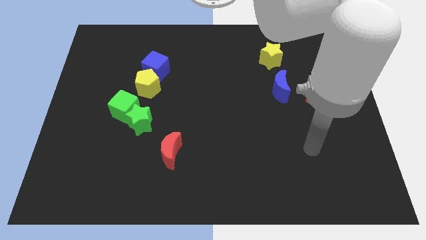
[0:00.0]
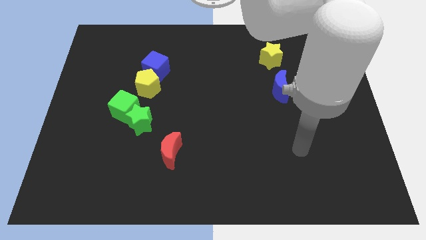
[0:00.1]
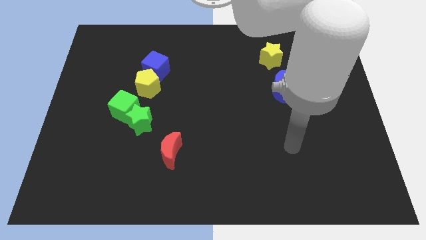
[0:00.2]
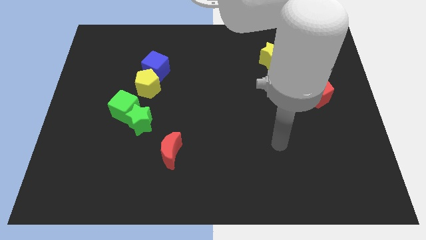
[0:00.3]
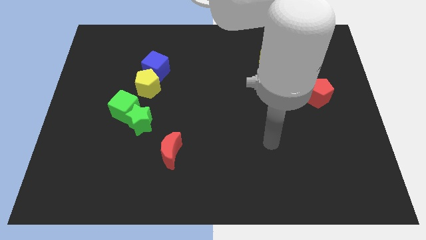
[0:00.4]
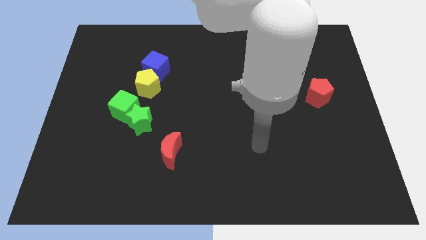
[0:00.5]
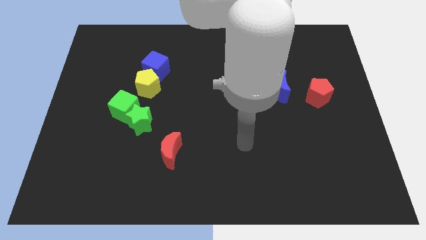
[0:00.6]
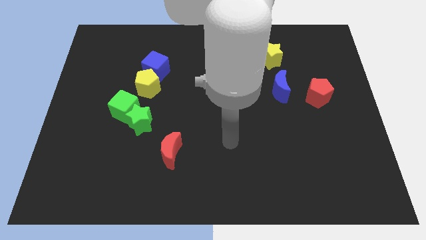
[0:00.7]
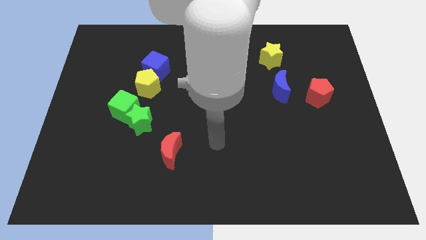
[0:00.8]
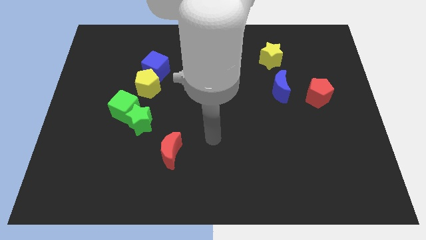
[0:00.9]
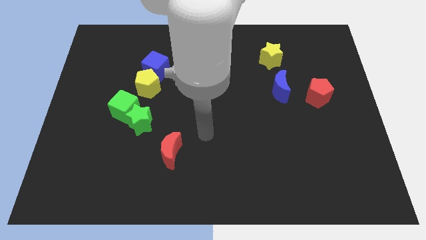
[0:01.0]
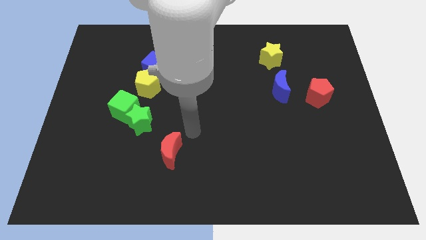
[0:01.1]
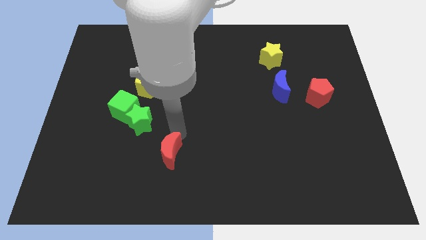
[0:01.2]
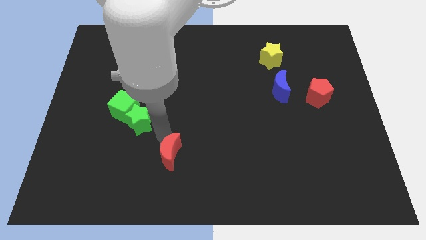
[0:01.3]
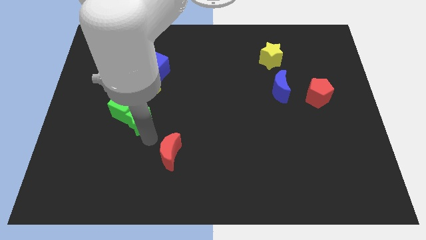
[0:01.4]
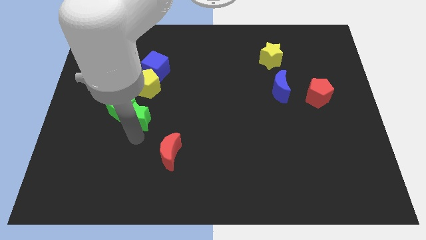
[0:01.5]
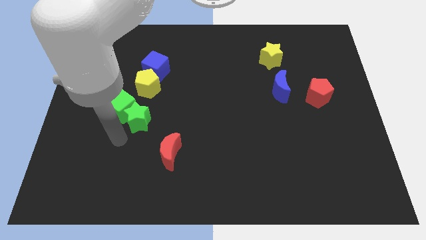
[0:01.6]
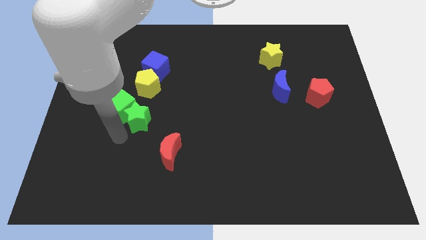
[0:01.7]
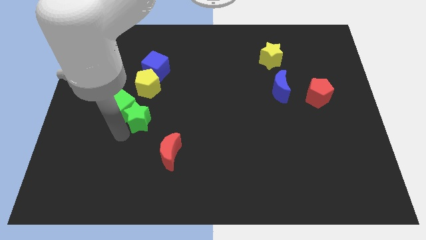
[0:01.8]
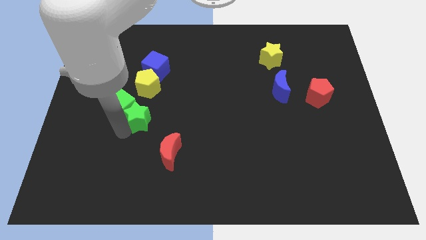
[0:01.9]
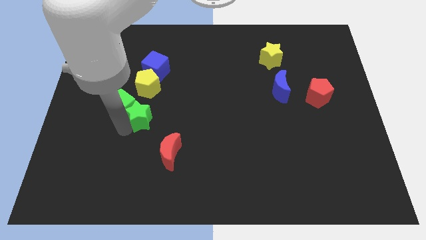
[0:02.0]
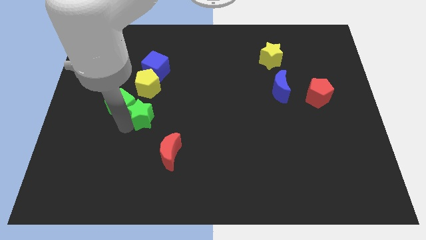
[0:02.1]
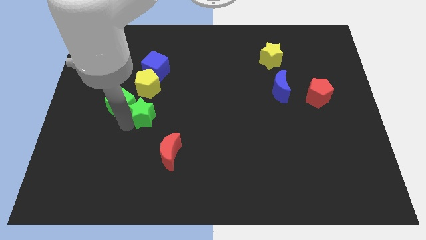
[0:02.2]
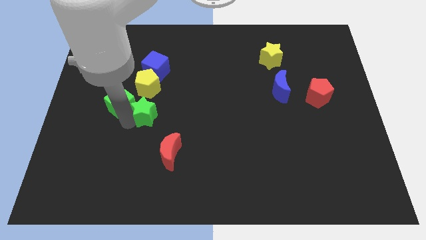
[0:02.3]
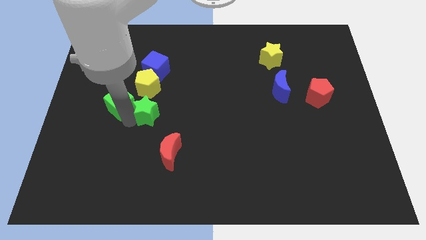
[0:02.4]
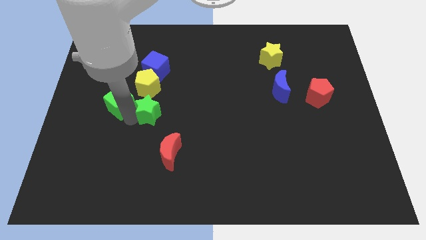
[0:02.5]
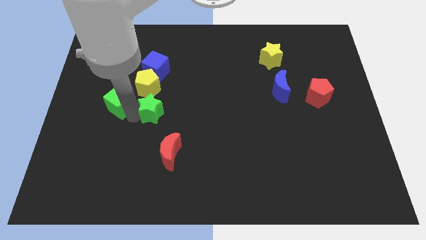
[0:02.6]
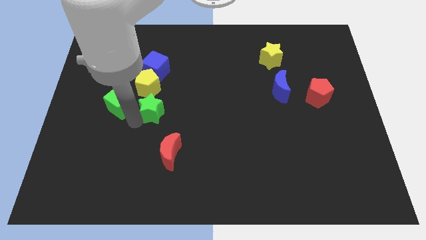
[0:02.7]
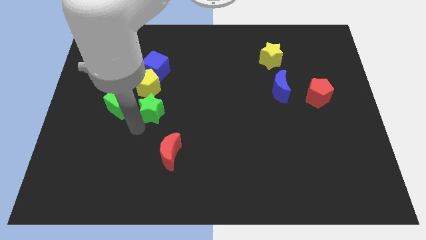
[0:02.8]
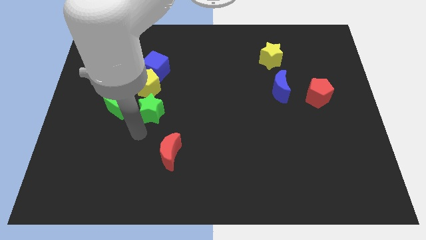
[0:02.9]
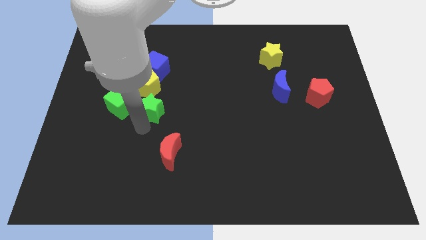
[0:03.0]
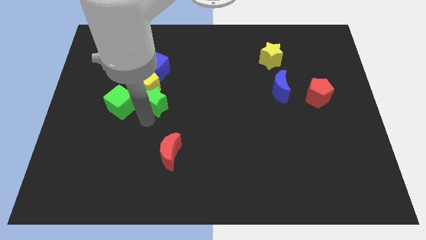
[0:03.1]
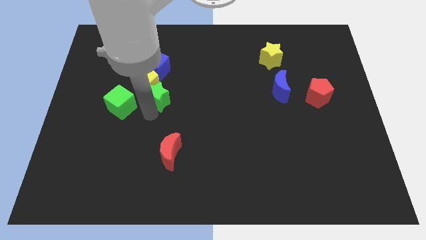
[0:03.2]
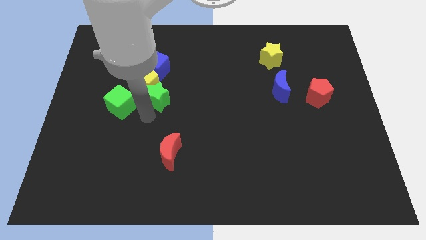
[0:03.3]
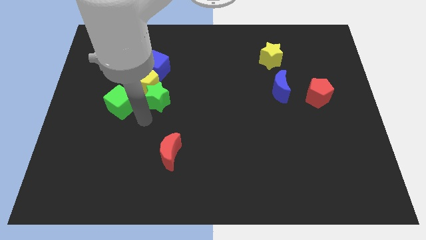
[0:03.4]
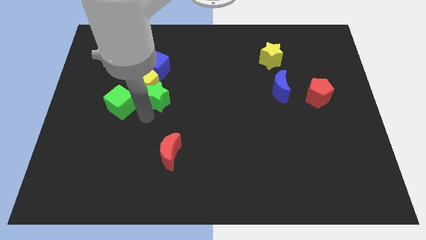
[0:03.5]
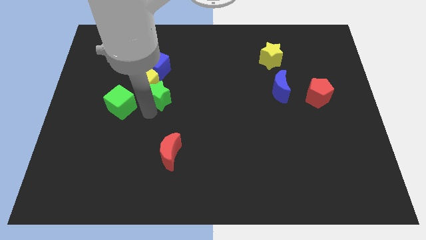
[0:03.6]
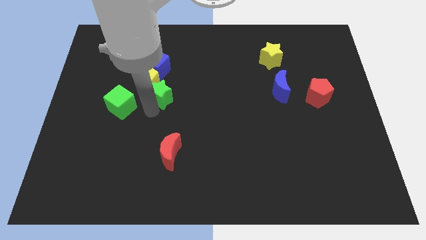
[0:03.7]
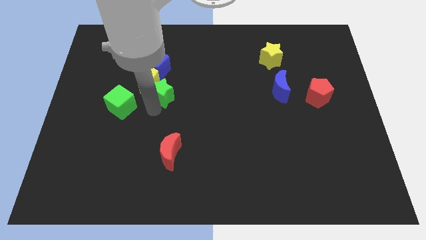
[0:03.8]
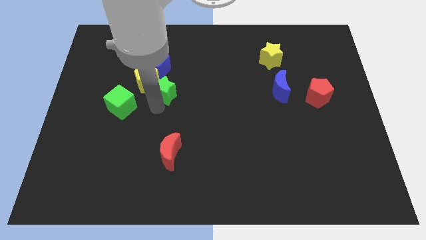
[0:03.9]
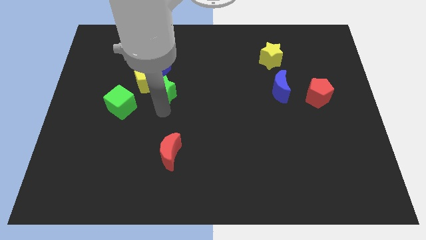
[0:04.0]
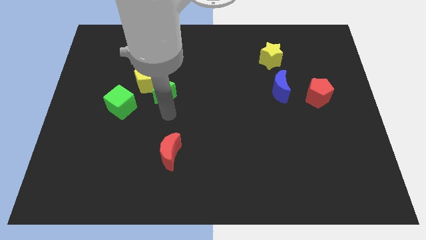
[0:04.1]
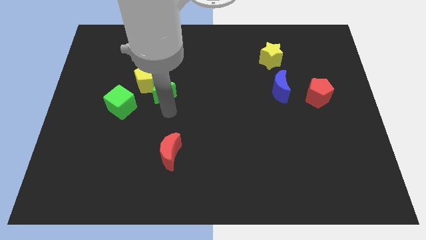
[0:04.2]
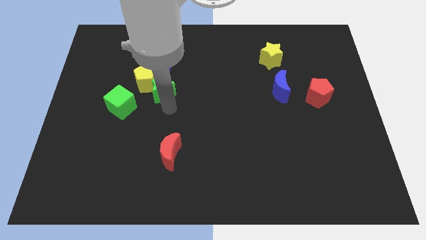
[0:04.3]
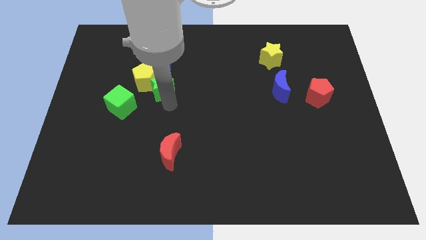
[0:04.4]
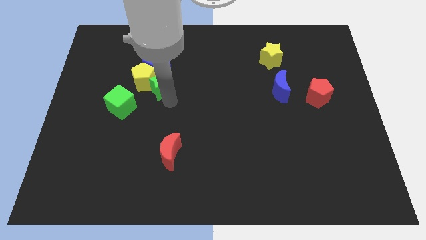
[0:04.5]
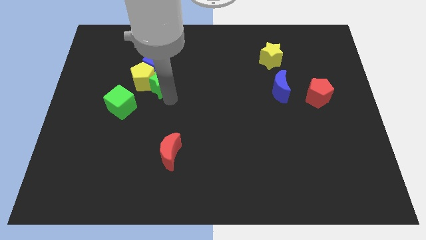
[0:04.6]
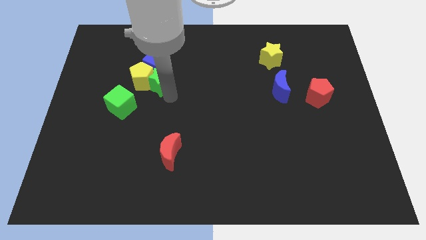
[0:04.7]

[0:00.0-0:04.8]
put the green star towards the blue cube

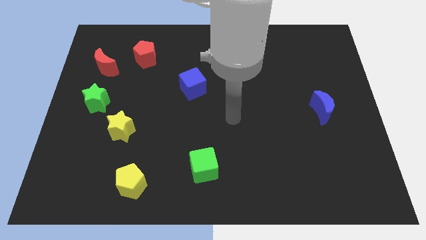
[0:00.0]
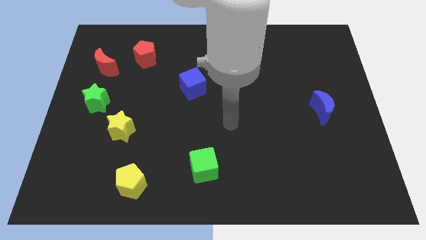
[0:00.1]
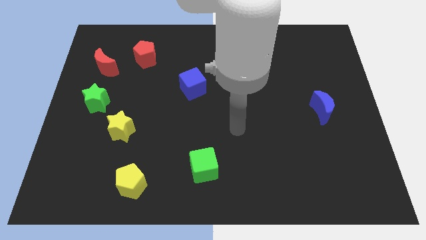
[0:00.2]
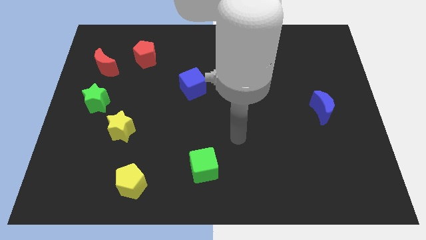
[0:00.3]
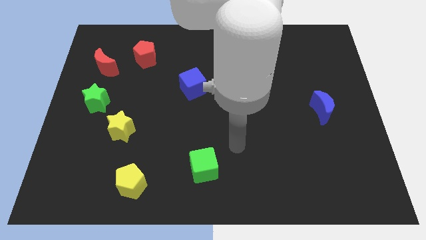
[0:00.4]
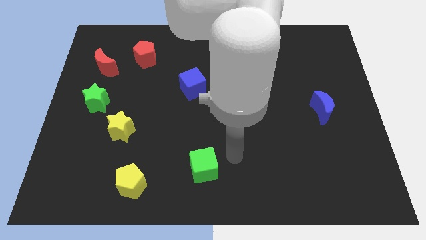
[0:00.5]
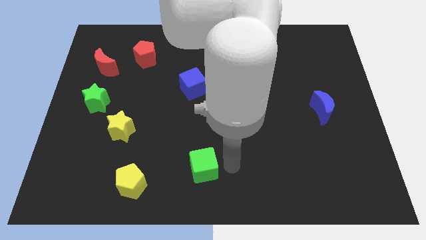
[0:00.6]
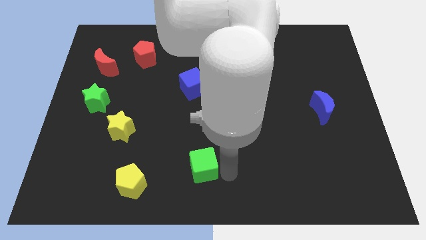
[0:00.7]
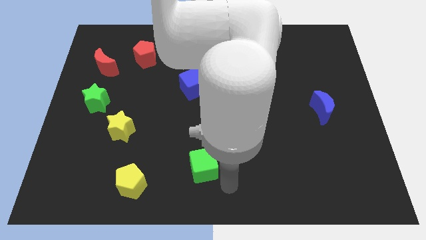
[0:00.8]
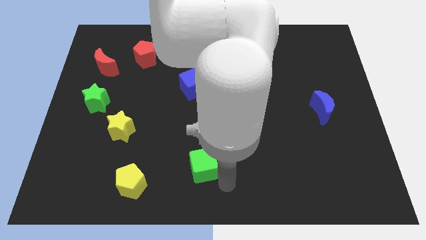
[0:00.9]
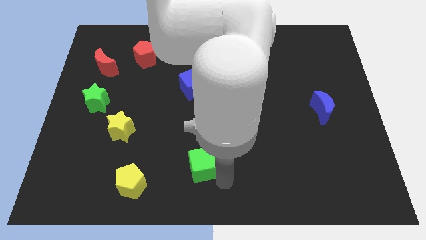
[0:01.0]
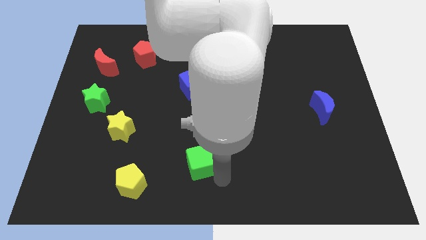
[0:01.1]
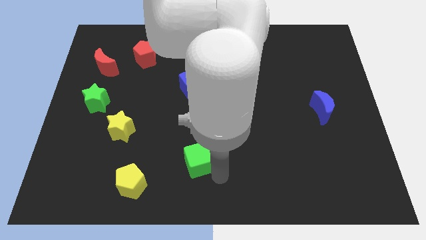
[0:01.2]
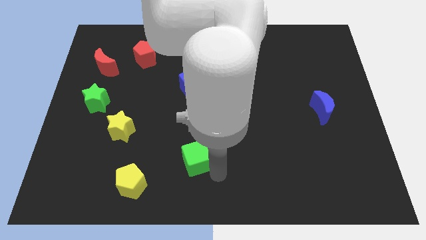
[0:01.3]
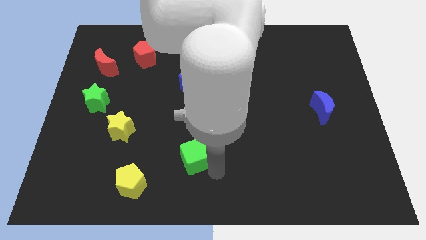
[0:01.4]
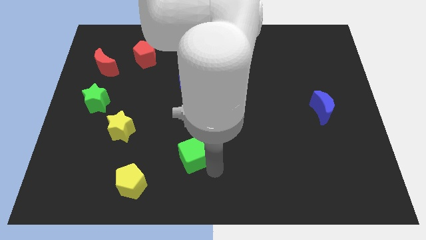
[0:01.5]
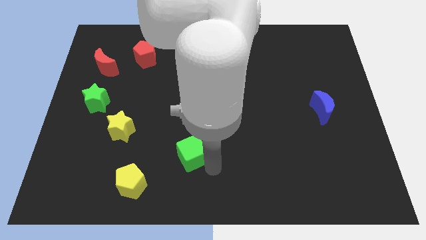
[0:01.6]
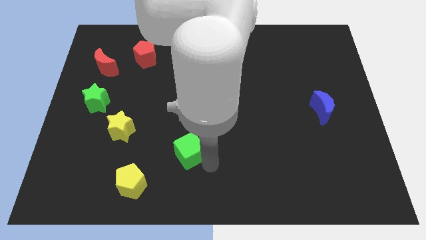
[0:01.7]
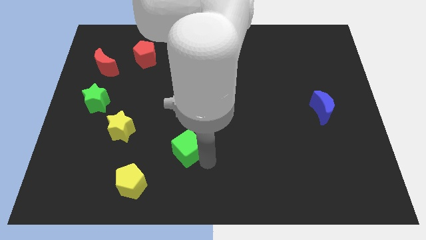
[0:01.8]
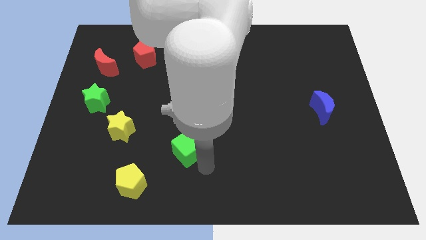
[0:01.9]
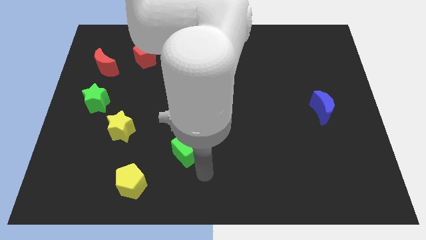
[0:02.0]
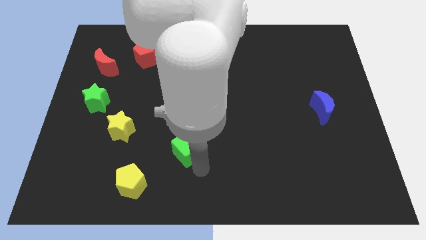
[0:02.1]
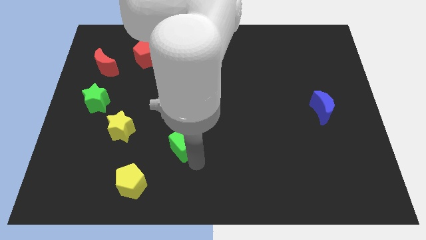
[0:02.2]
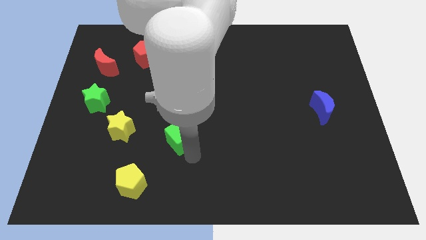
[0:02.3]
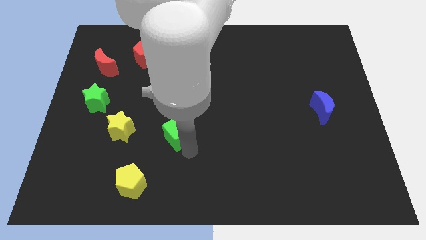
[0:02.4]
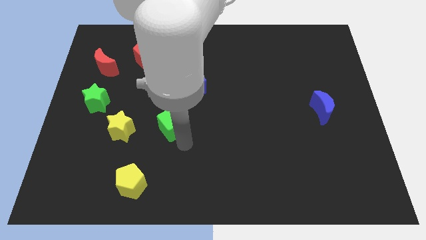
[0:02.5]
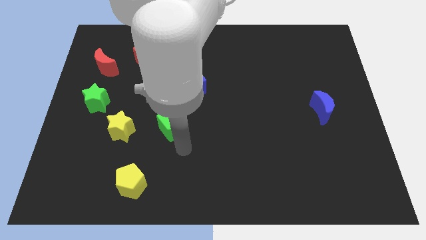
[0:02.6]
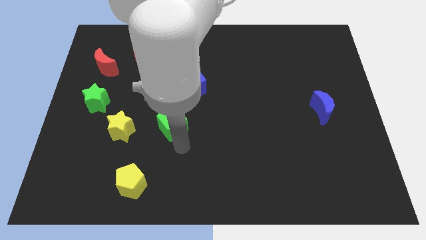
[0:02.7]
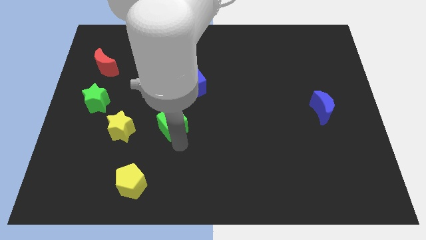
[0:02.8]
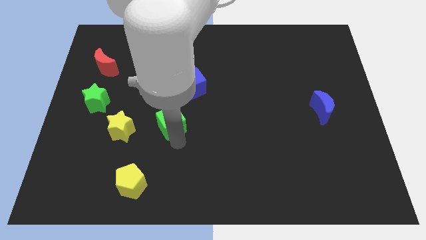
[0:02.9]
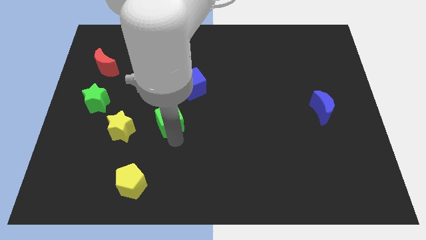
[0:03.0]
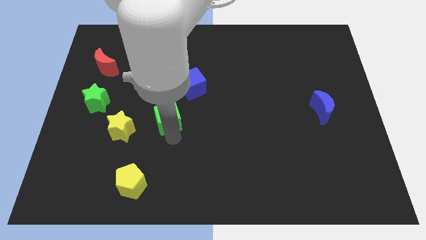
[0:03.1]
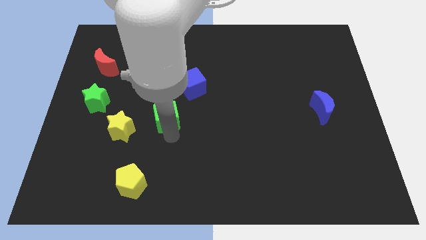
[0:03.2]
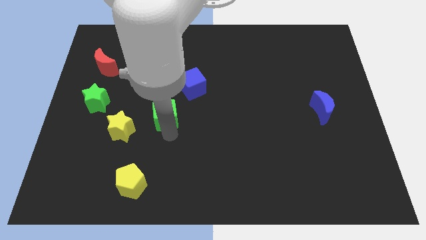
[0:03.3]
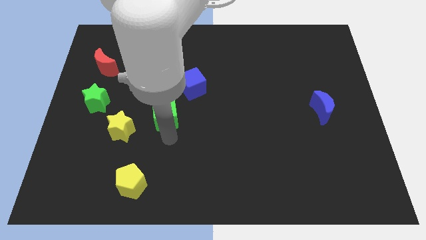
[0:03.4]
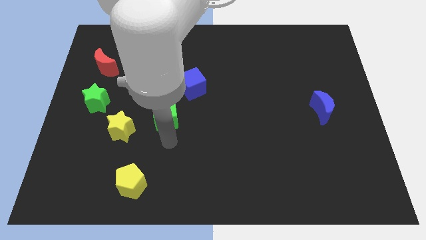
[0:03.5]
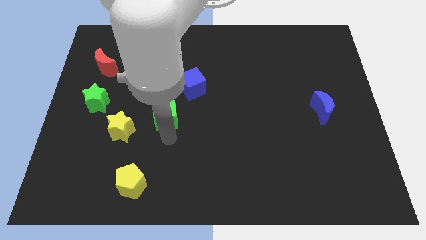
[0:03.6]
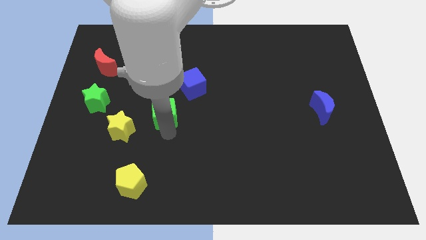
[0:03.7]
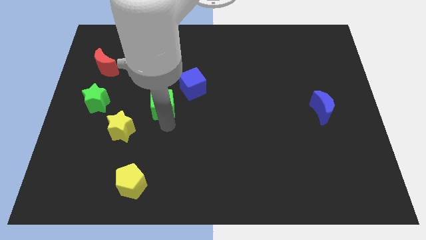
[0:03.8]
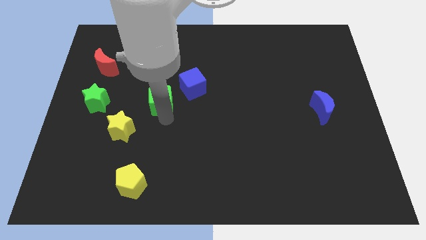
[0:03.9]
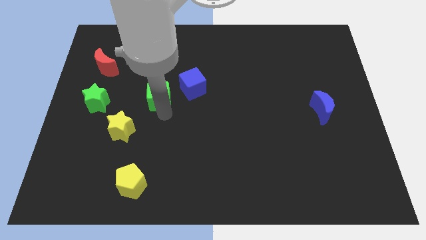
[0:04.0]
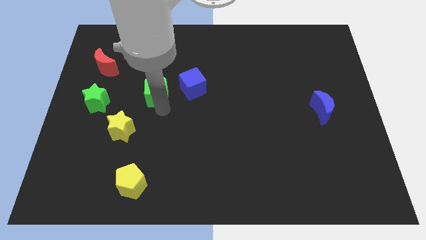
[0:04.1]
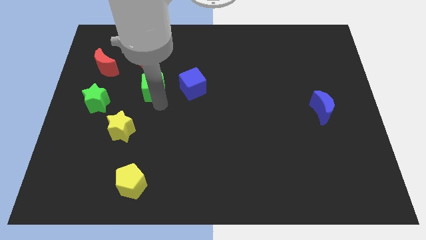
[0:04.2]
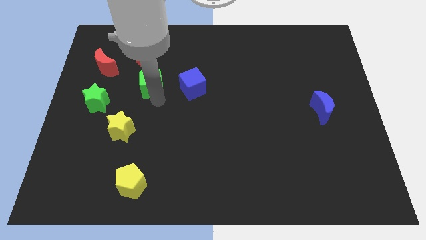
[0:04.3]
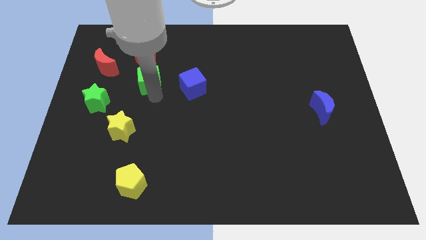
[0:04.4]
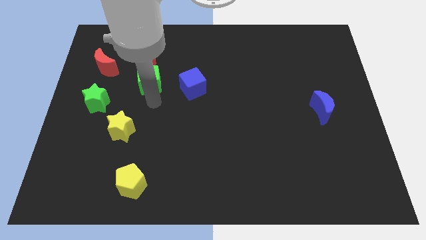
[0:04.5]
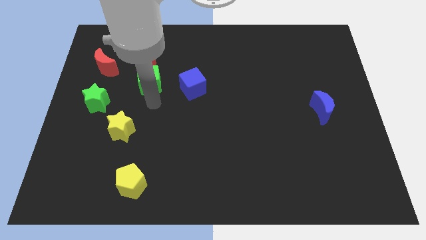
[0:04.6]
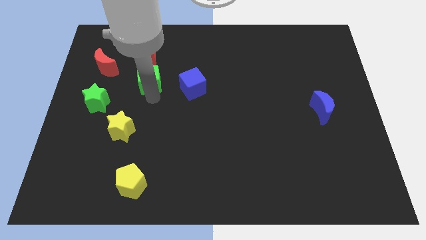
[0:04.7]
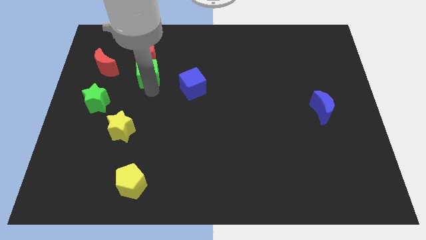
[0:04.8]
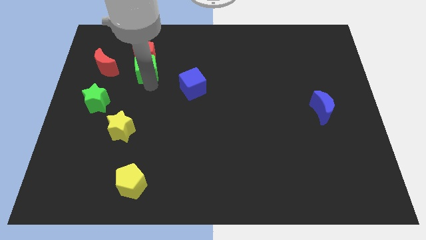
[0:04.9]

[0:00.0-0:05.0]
move the green cube next to the red pentagon
